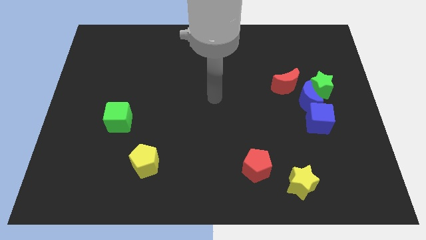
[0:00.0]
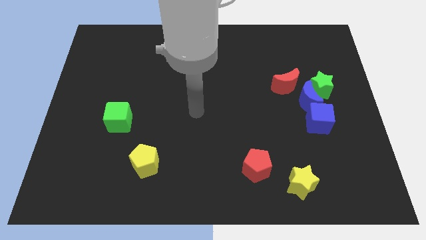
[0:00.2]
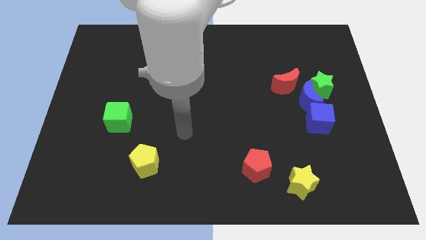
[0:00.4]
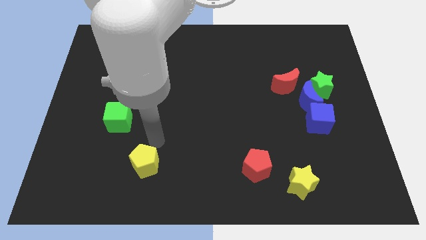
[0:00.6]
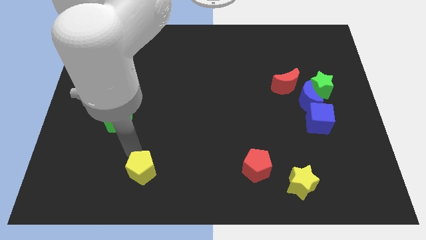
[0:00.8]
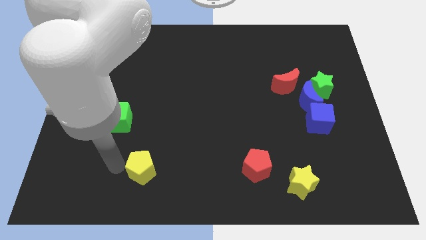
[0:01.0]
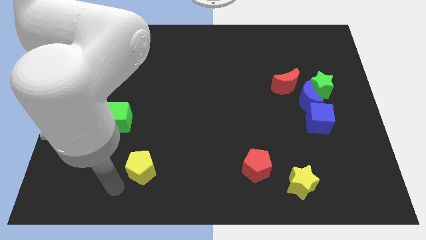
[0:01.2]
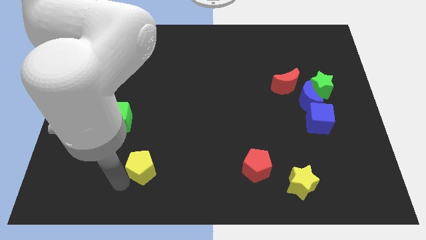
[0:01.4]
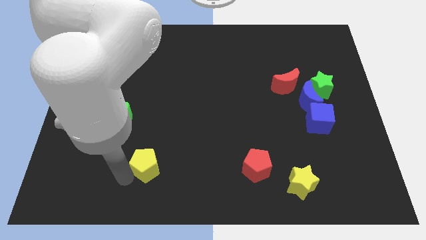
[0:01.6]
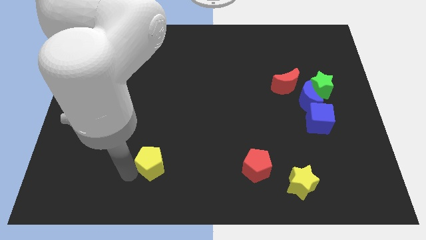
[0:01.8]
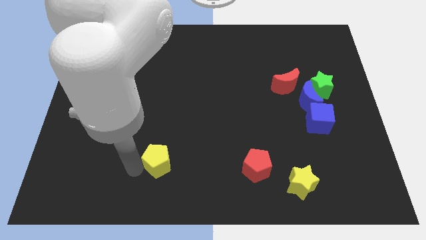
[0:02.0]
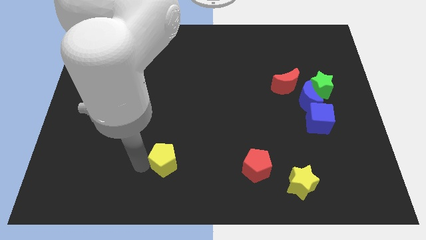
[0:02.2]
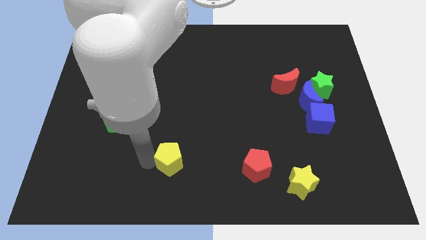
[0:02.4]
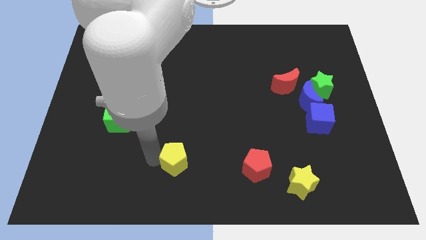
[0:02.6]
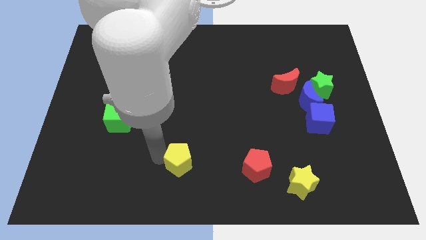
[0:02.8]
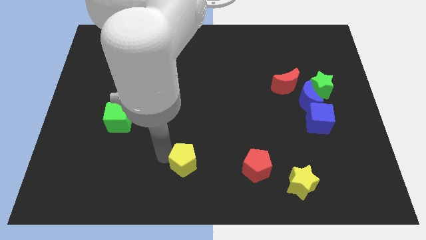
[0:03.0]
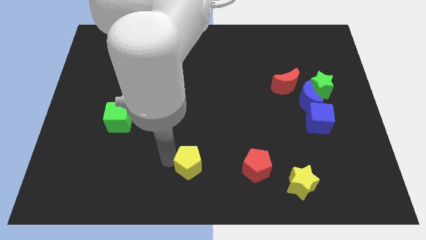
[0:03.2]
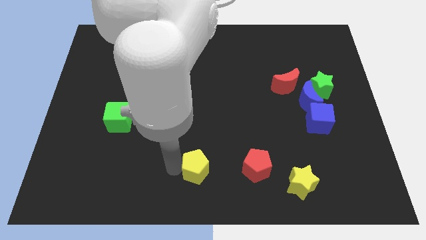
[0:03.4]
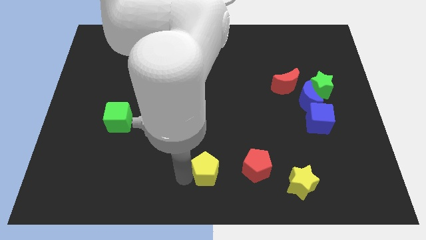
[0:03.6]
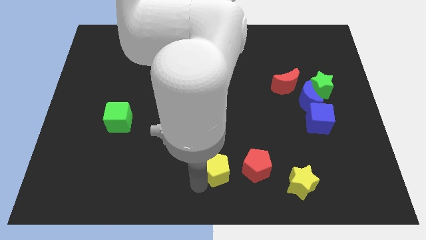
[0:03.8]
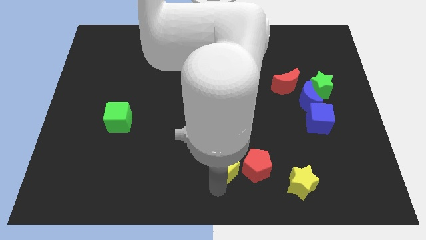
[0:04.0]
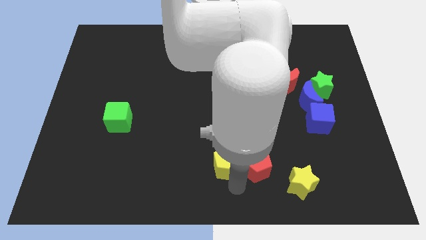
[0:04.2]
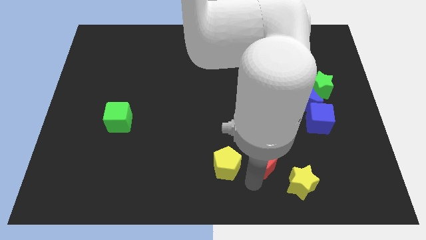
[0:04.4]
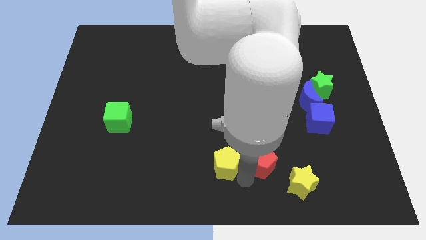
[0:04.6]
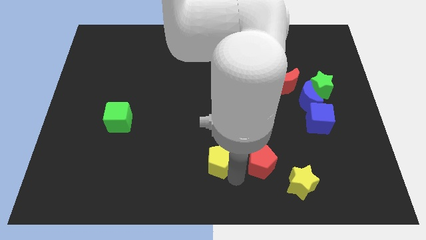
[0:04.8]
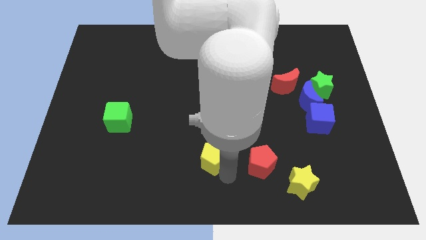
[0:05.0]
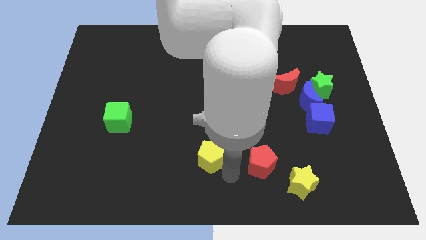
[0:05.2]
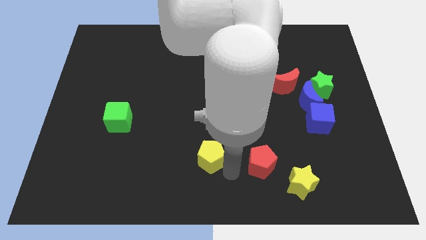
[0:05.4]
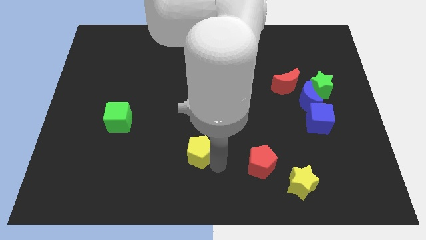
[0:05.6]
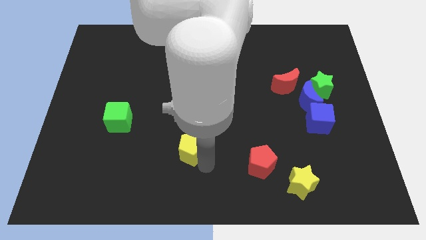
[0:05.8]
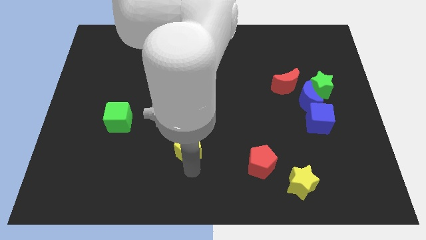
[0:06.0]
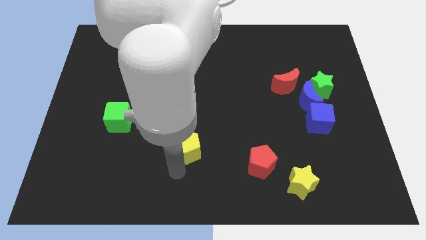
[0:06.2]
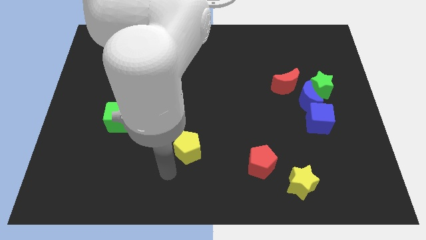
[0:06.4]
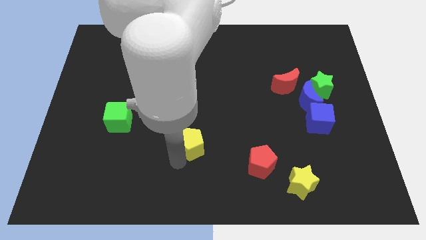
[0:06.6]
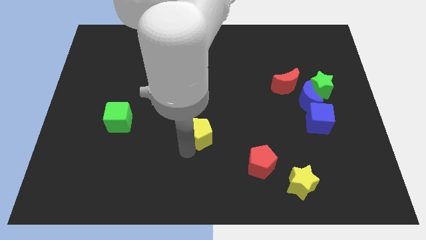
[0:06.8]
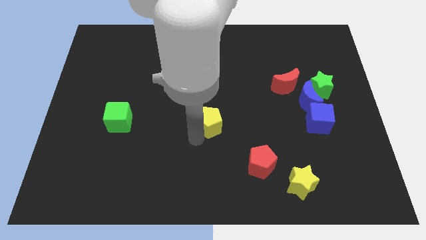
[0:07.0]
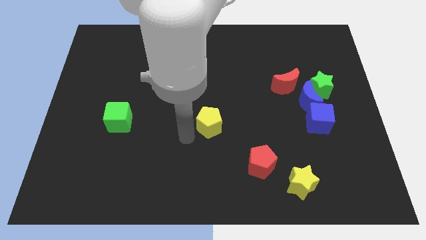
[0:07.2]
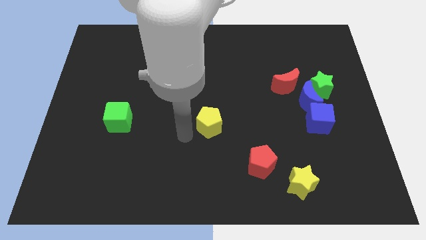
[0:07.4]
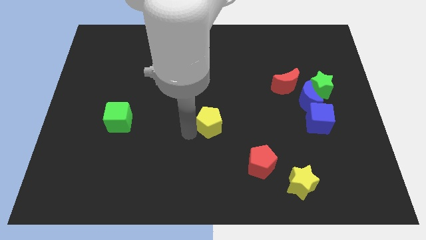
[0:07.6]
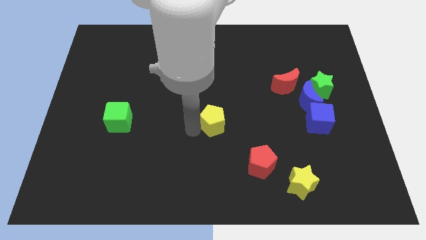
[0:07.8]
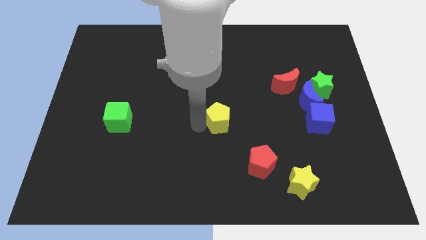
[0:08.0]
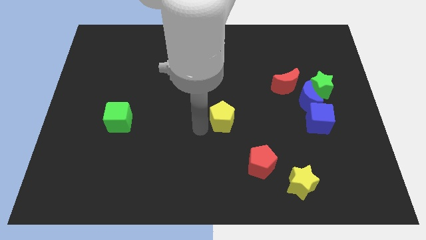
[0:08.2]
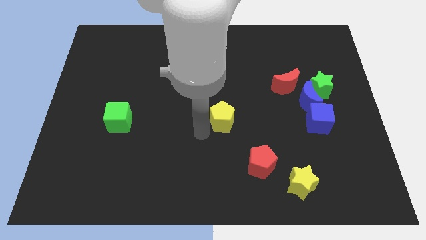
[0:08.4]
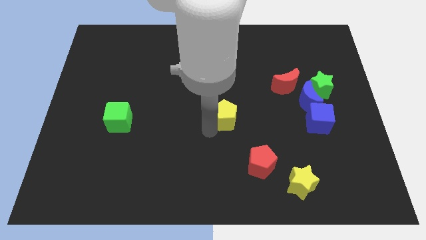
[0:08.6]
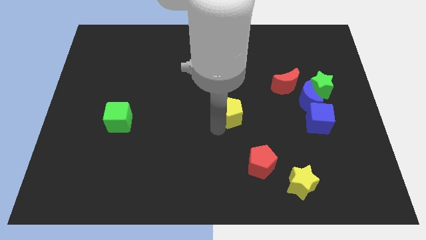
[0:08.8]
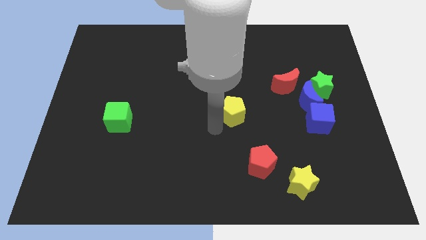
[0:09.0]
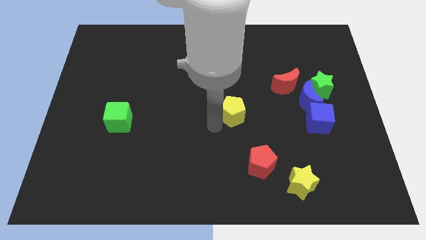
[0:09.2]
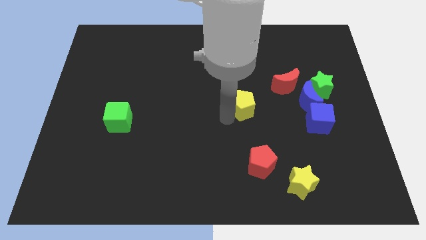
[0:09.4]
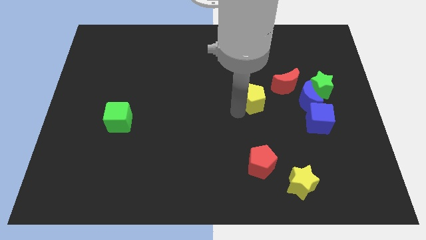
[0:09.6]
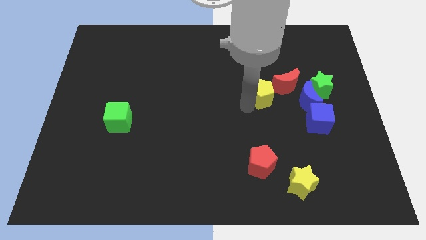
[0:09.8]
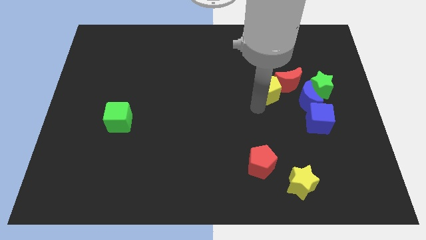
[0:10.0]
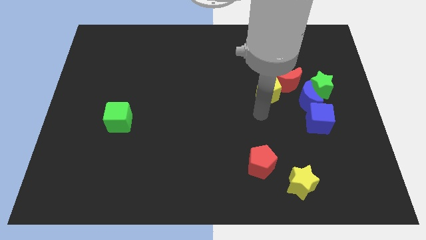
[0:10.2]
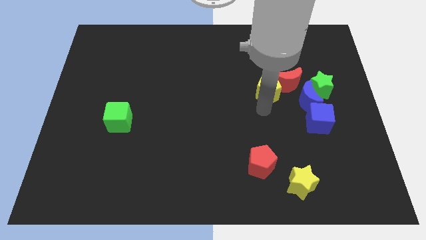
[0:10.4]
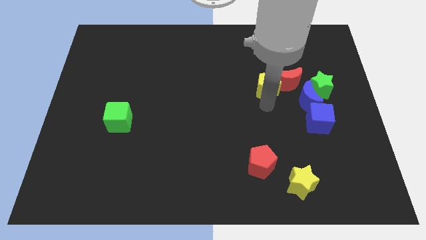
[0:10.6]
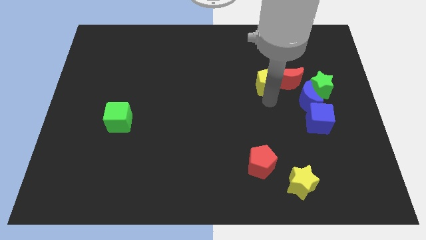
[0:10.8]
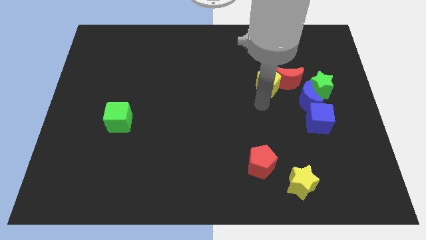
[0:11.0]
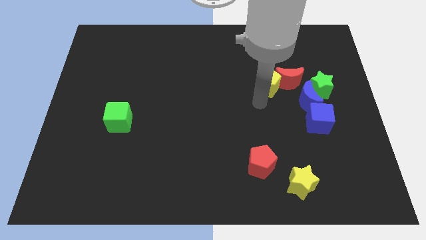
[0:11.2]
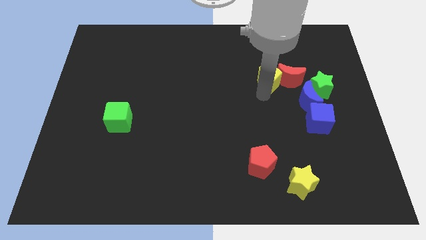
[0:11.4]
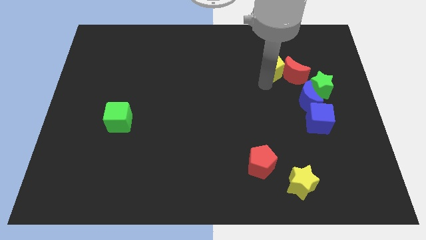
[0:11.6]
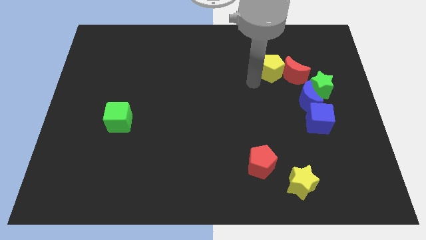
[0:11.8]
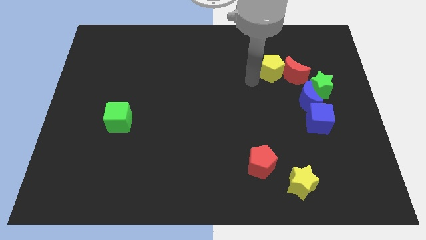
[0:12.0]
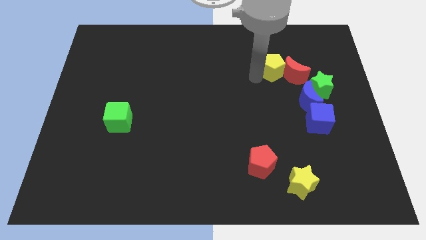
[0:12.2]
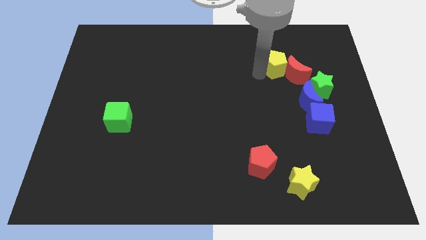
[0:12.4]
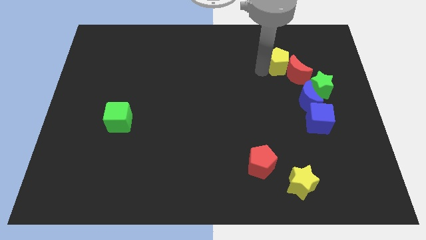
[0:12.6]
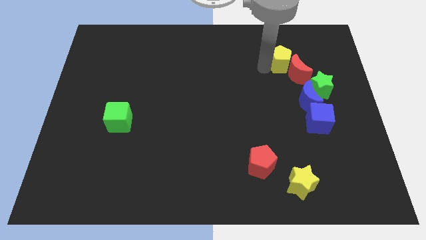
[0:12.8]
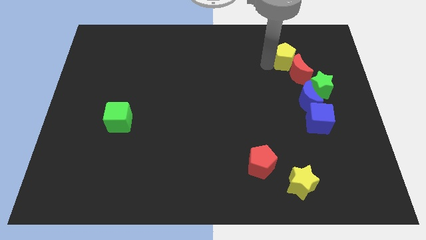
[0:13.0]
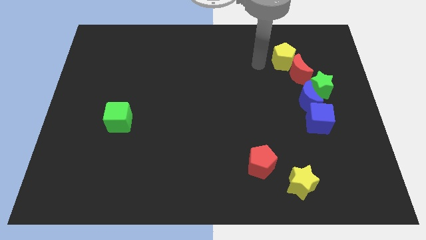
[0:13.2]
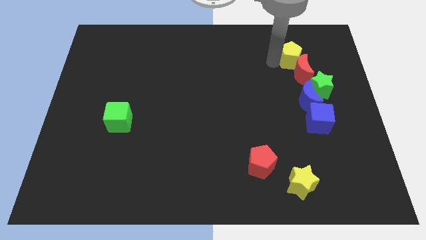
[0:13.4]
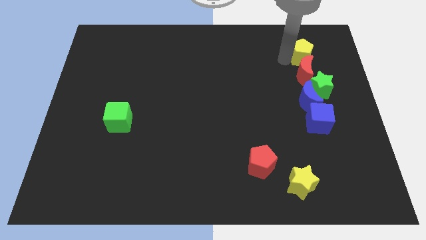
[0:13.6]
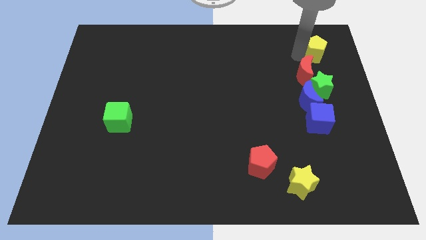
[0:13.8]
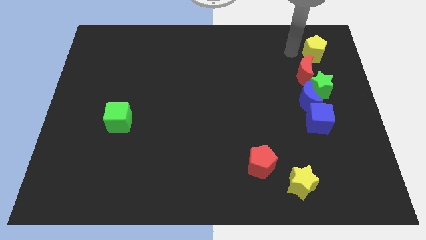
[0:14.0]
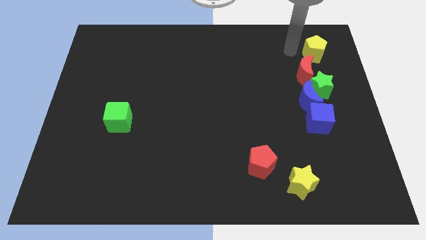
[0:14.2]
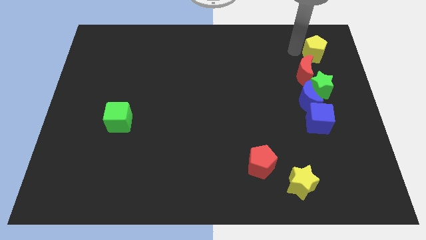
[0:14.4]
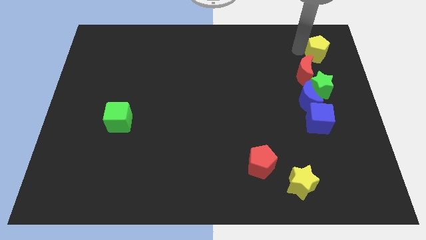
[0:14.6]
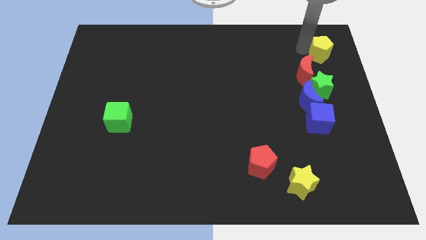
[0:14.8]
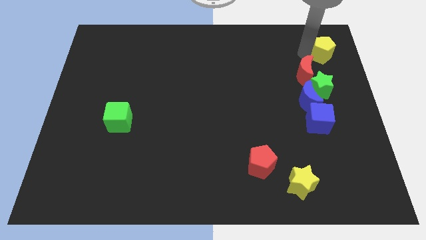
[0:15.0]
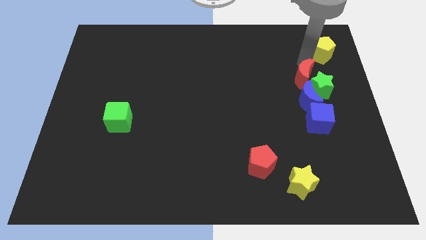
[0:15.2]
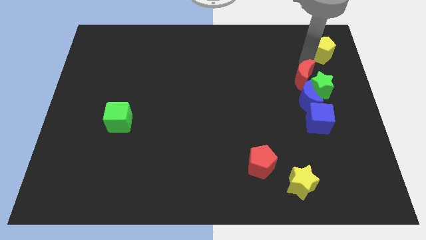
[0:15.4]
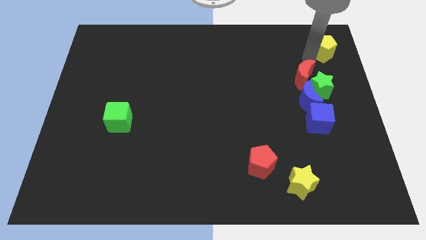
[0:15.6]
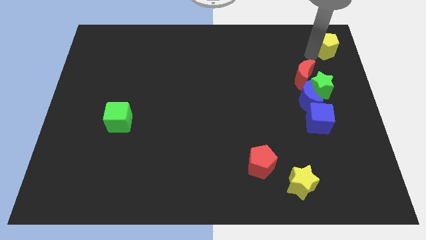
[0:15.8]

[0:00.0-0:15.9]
slide the yellow pentagon to the top right of the board
